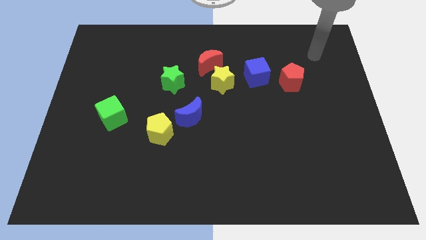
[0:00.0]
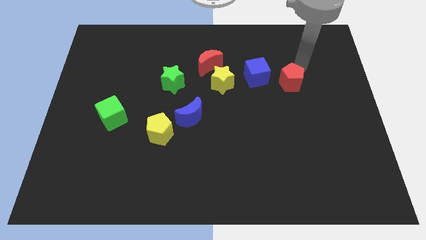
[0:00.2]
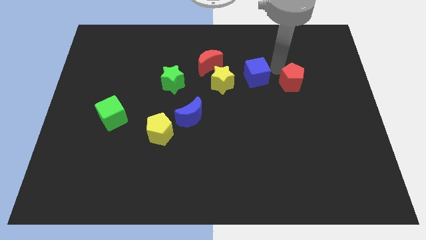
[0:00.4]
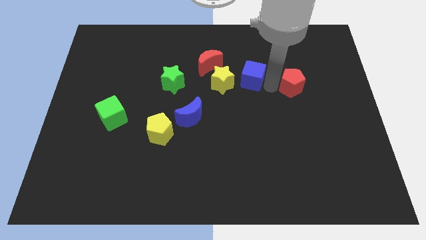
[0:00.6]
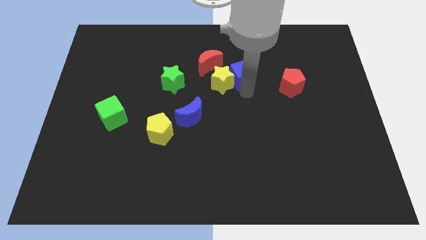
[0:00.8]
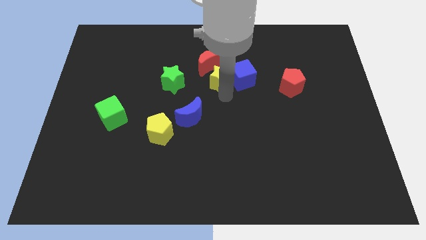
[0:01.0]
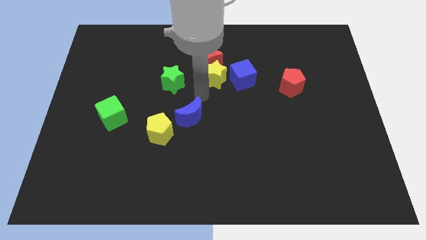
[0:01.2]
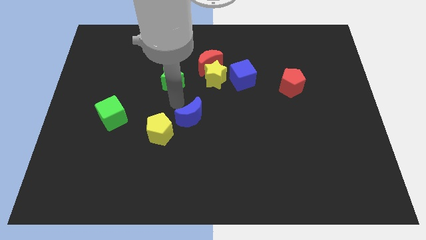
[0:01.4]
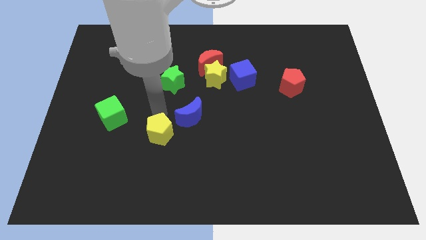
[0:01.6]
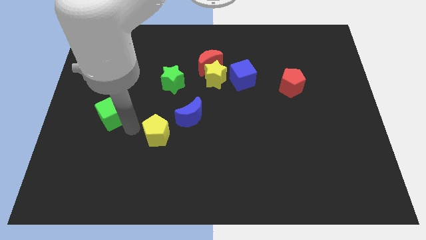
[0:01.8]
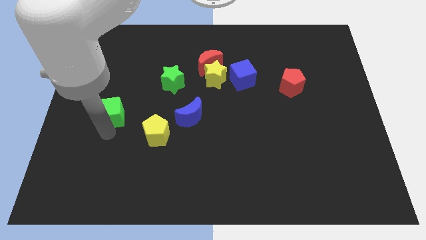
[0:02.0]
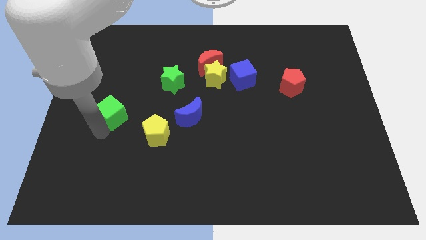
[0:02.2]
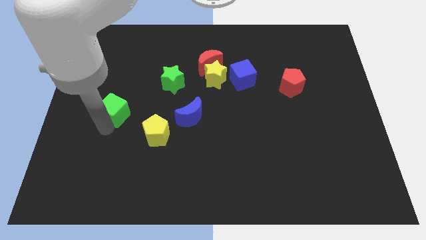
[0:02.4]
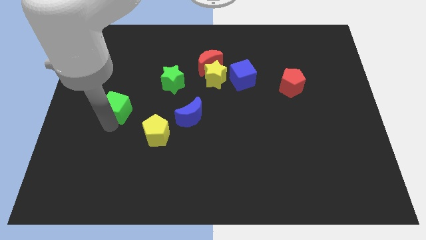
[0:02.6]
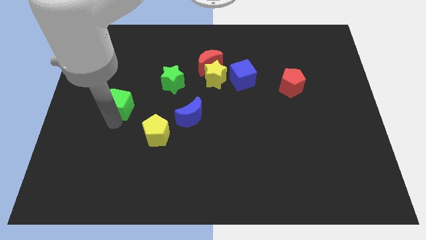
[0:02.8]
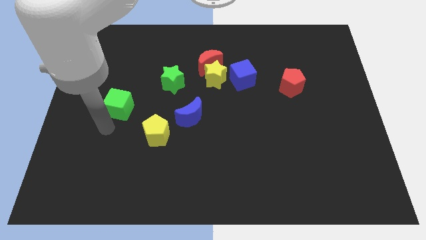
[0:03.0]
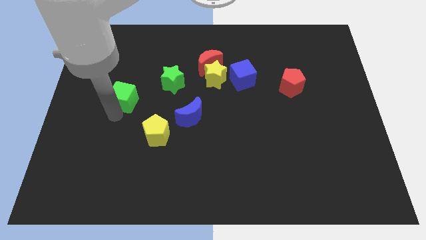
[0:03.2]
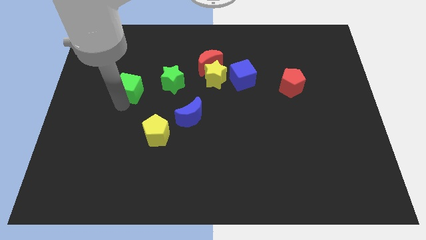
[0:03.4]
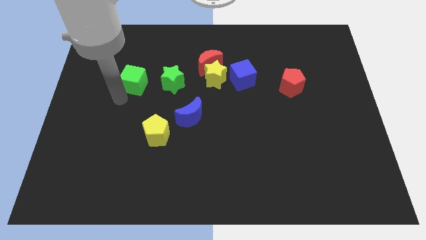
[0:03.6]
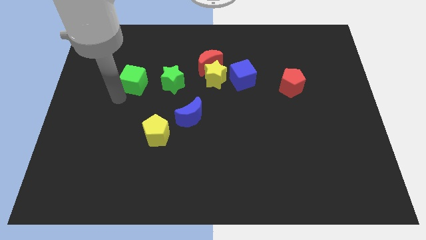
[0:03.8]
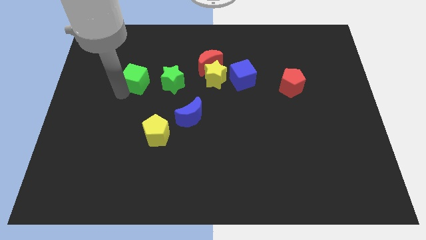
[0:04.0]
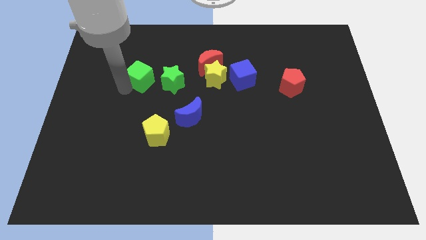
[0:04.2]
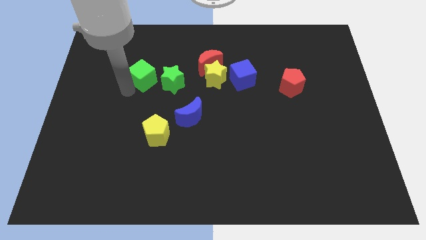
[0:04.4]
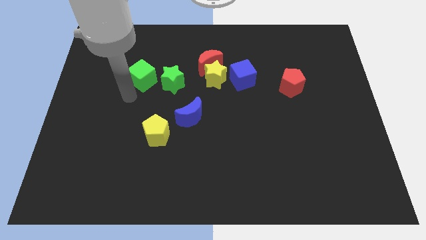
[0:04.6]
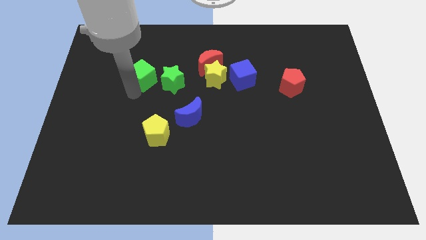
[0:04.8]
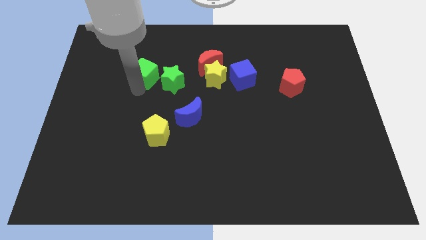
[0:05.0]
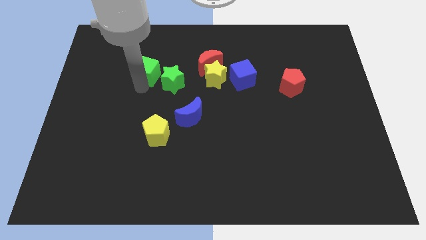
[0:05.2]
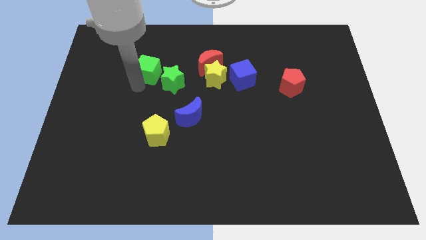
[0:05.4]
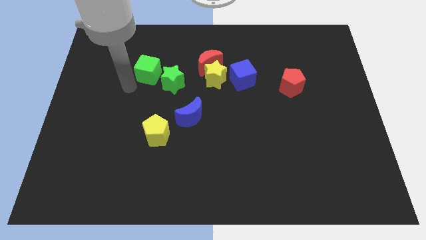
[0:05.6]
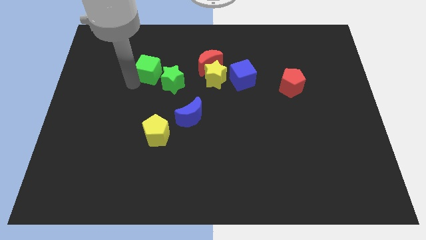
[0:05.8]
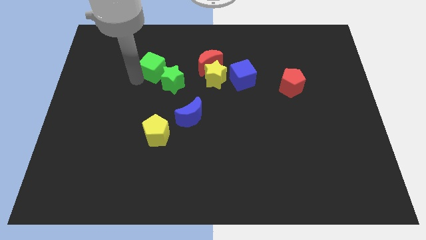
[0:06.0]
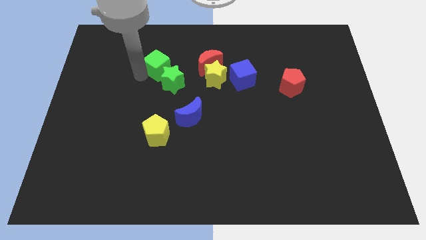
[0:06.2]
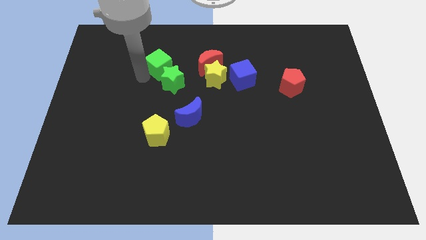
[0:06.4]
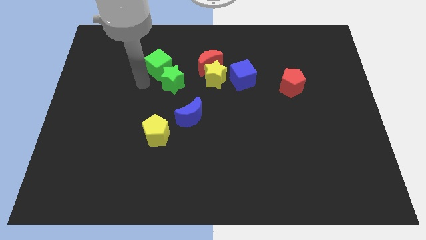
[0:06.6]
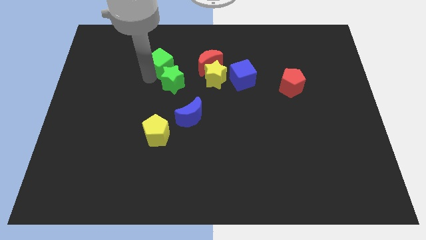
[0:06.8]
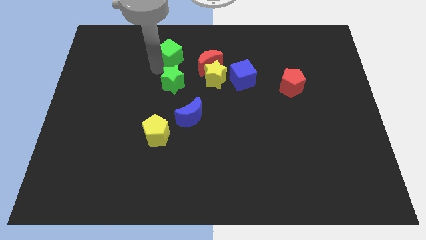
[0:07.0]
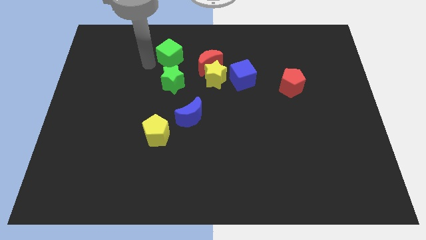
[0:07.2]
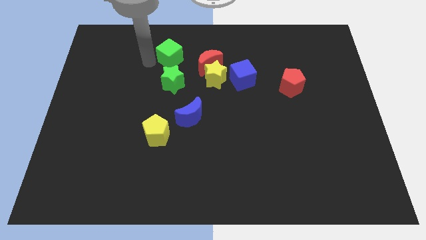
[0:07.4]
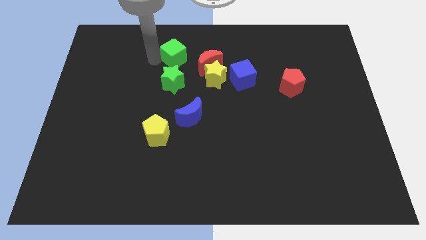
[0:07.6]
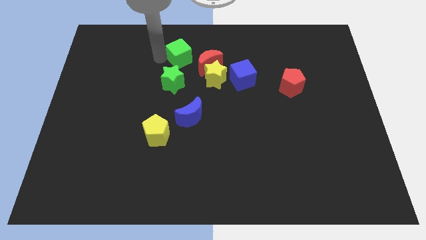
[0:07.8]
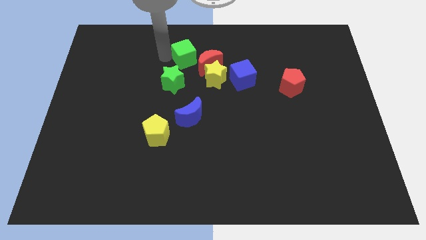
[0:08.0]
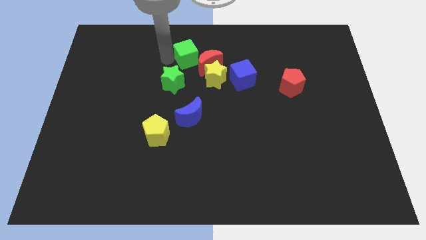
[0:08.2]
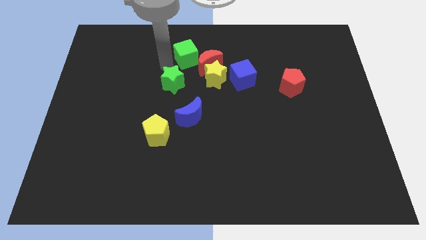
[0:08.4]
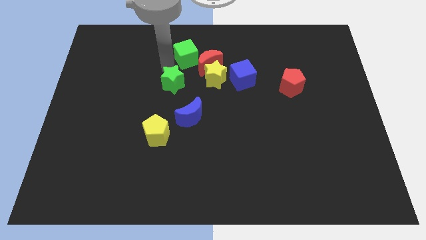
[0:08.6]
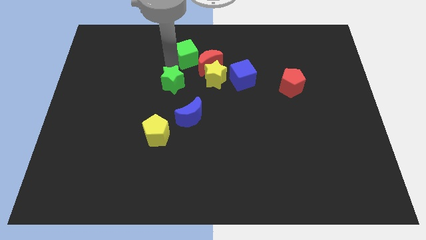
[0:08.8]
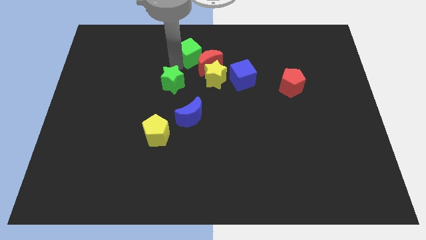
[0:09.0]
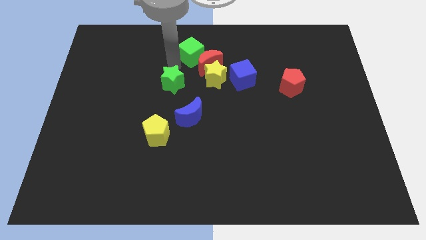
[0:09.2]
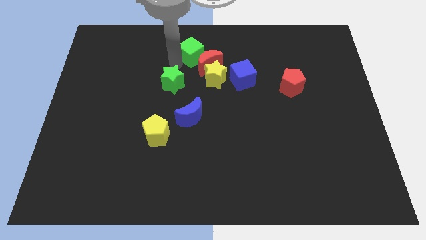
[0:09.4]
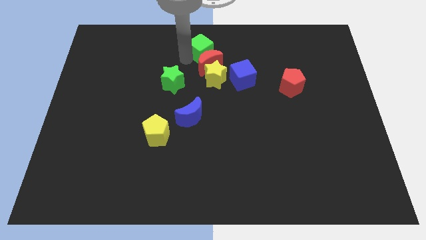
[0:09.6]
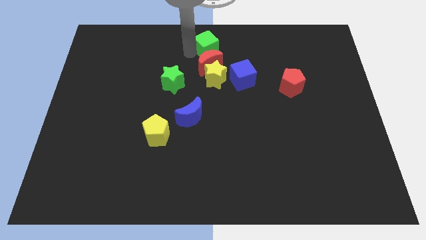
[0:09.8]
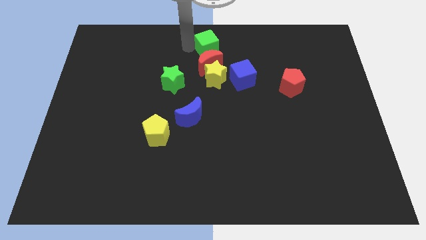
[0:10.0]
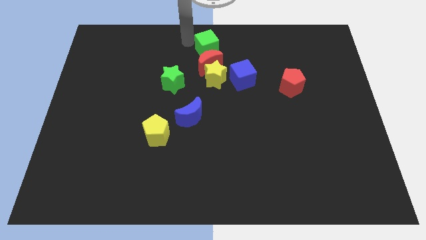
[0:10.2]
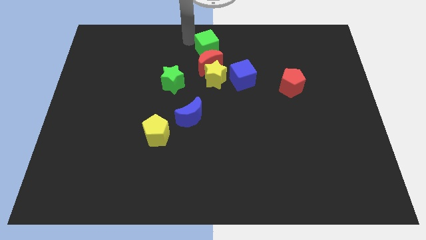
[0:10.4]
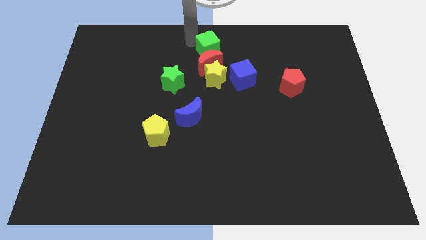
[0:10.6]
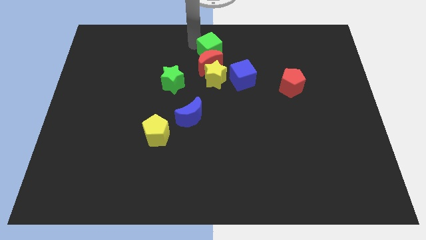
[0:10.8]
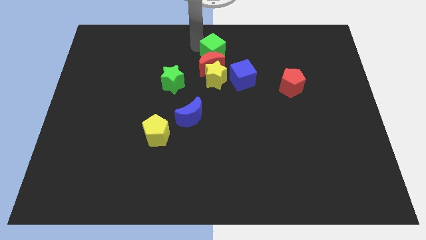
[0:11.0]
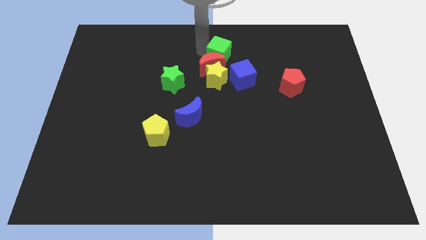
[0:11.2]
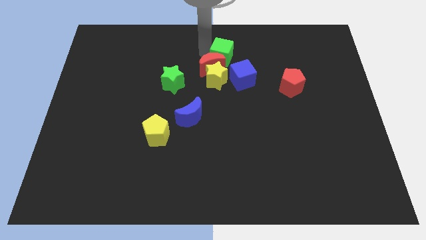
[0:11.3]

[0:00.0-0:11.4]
put the green cube to the right of the red moon

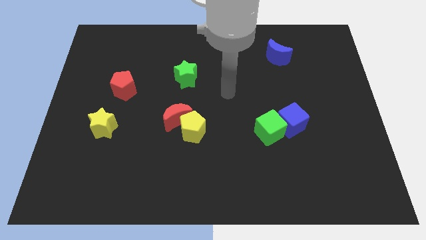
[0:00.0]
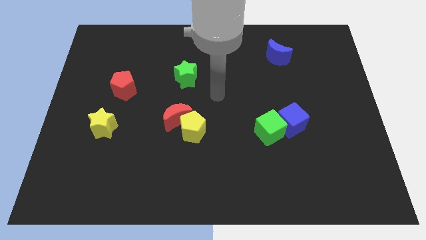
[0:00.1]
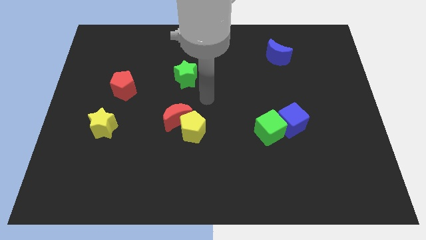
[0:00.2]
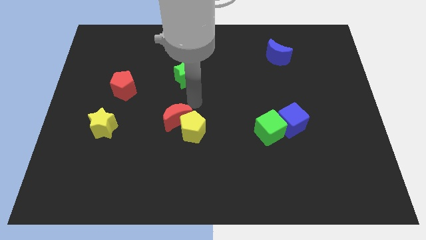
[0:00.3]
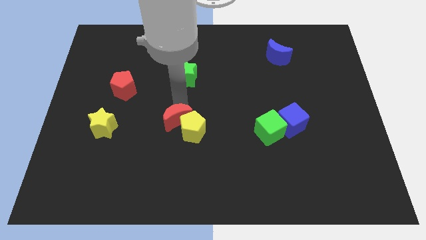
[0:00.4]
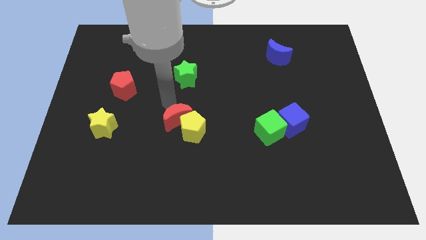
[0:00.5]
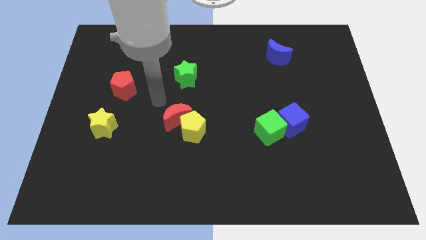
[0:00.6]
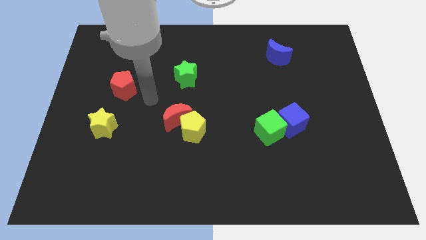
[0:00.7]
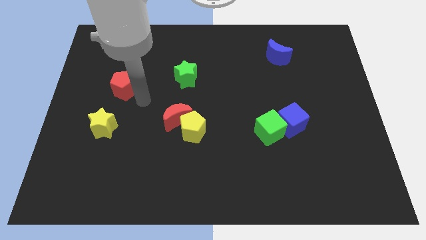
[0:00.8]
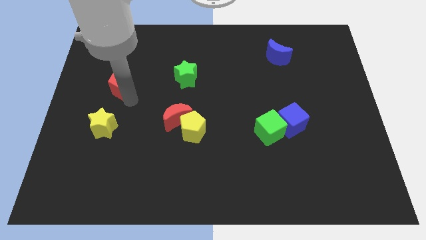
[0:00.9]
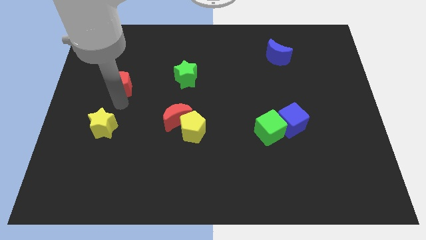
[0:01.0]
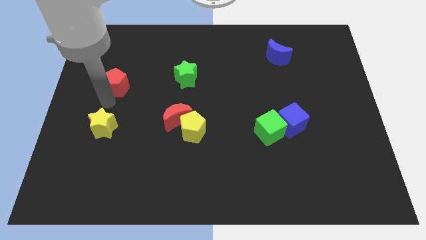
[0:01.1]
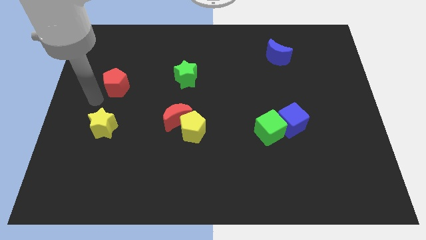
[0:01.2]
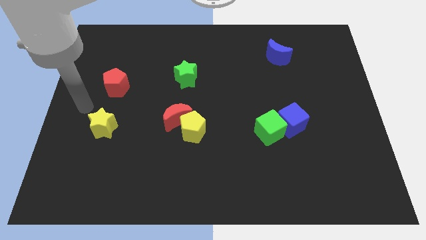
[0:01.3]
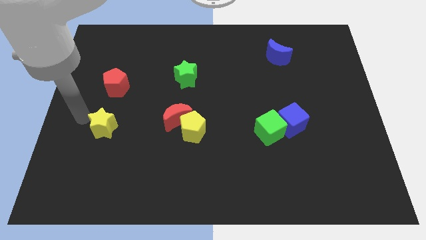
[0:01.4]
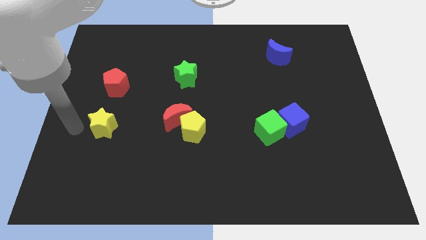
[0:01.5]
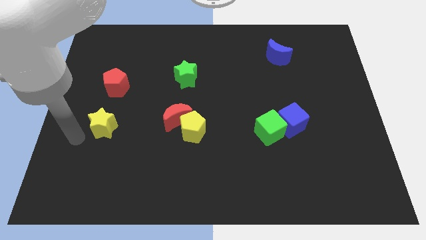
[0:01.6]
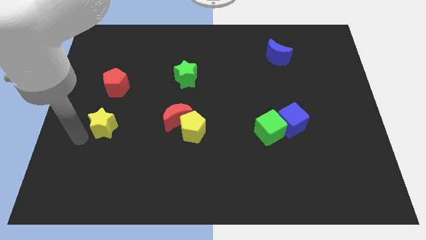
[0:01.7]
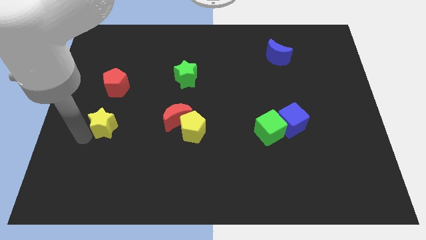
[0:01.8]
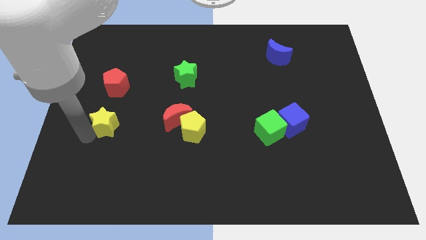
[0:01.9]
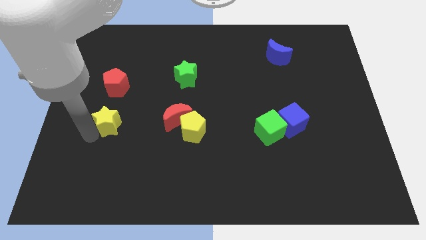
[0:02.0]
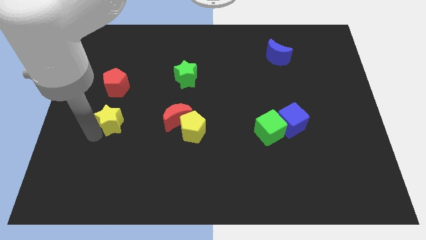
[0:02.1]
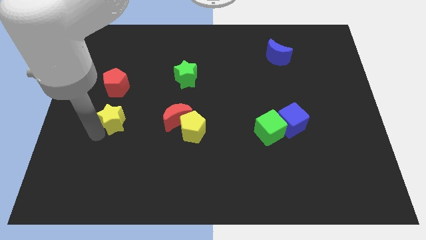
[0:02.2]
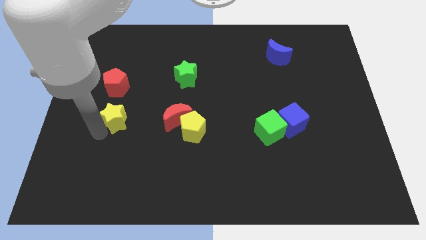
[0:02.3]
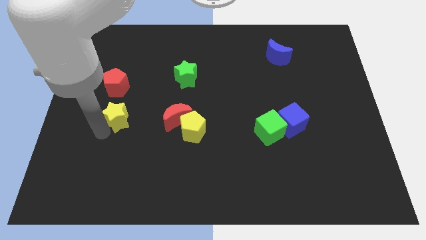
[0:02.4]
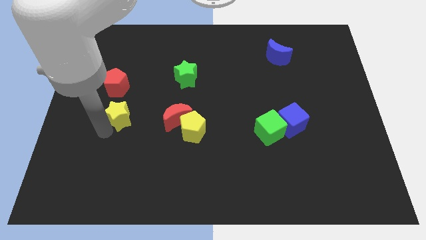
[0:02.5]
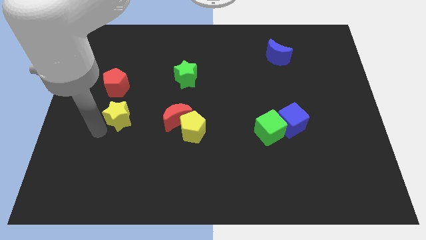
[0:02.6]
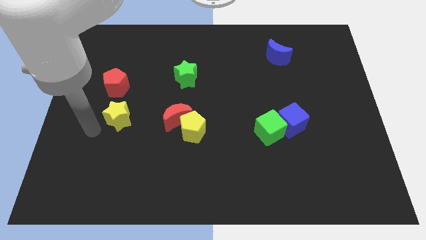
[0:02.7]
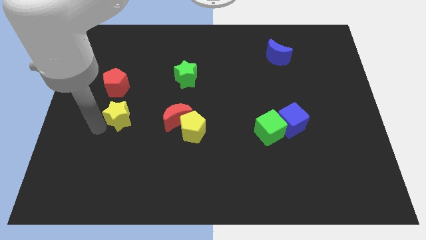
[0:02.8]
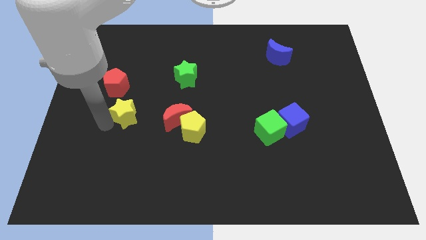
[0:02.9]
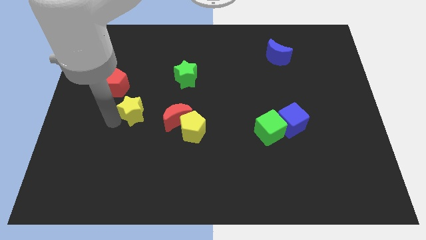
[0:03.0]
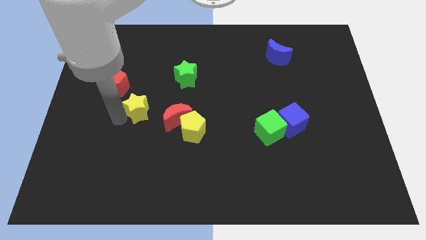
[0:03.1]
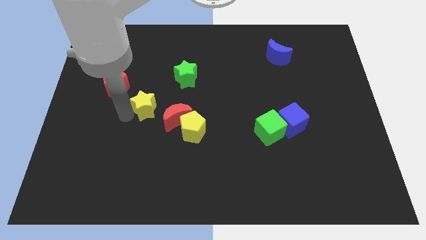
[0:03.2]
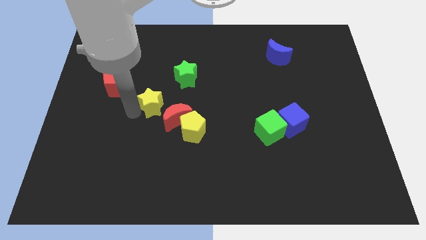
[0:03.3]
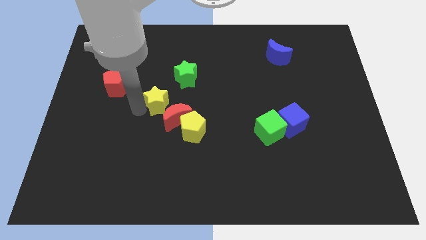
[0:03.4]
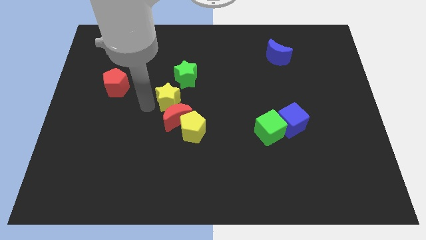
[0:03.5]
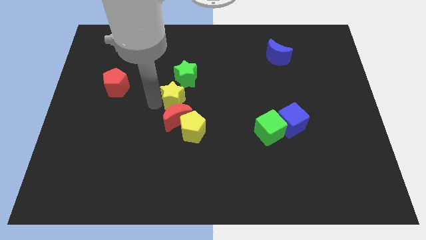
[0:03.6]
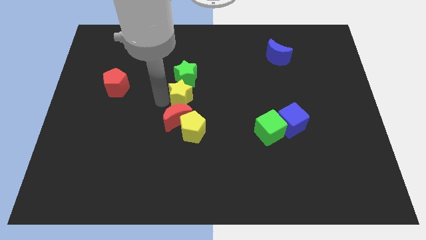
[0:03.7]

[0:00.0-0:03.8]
move the yellow star to the top right of the red moon
